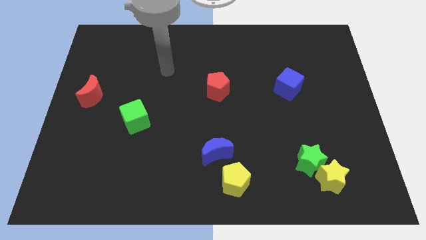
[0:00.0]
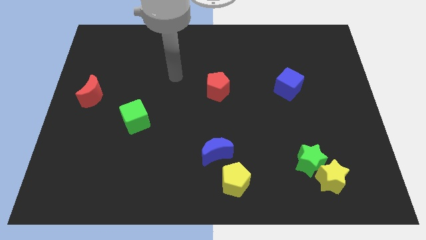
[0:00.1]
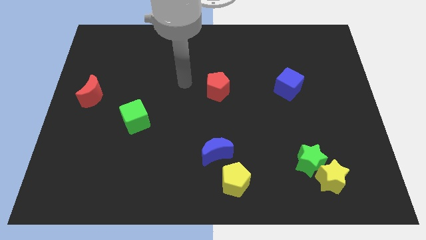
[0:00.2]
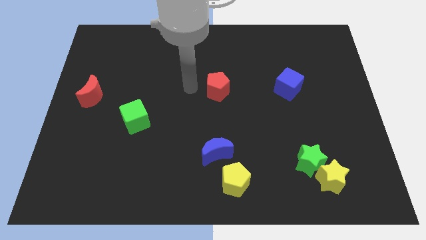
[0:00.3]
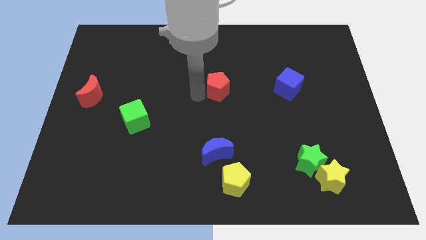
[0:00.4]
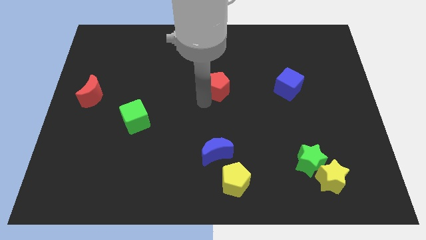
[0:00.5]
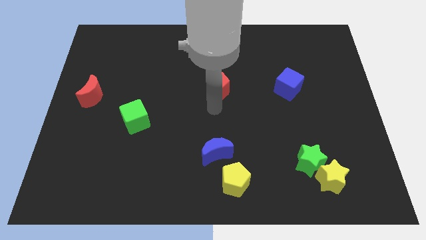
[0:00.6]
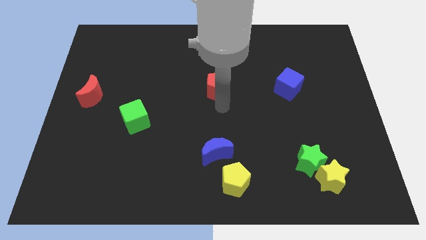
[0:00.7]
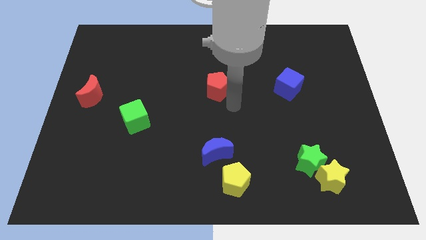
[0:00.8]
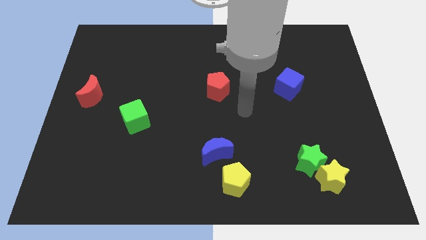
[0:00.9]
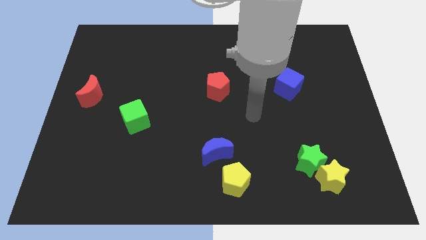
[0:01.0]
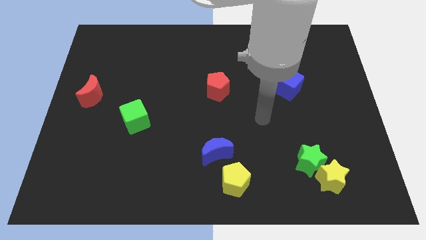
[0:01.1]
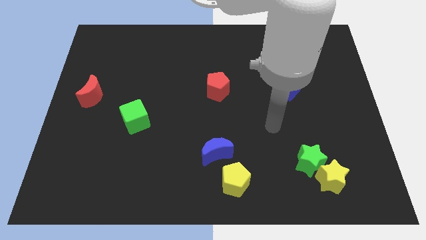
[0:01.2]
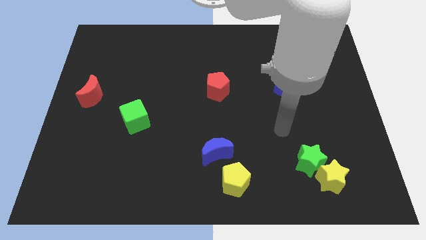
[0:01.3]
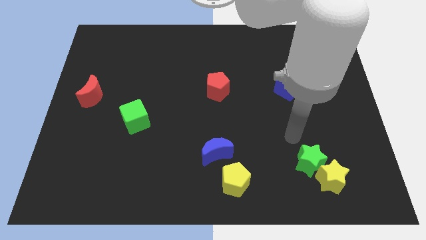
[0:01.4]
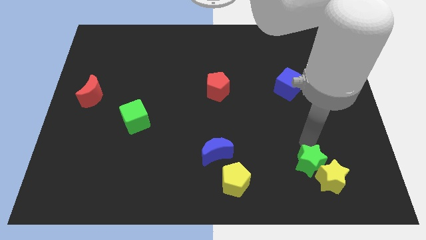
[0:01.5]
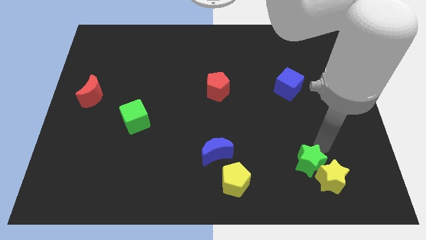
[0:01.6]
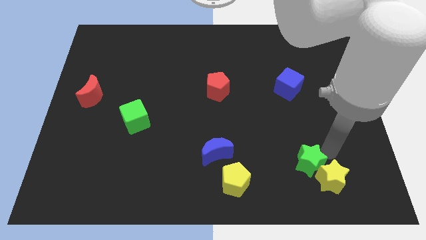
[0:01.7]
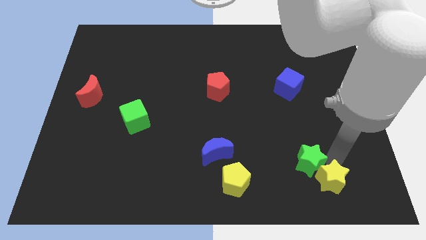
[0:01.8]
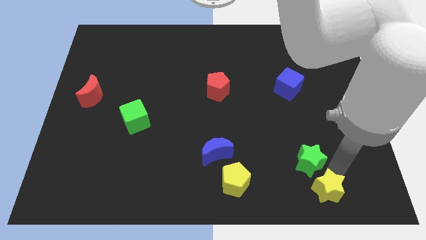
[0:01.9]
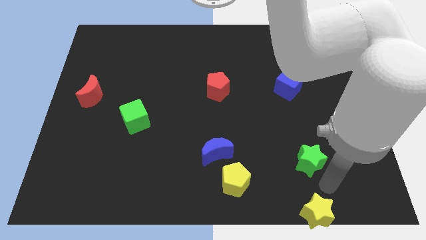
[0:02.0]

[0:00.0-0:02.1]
separate the green star from the yellow star

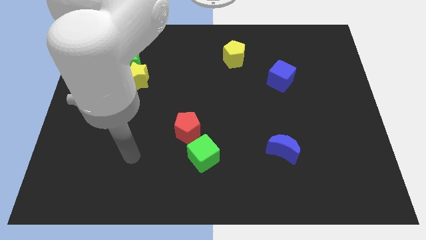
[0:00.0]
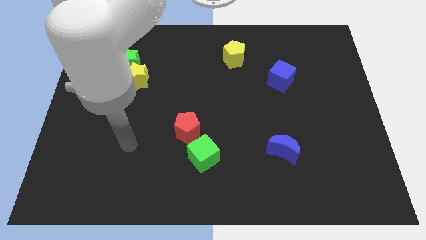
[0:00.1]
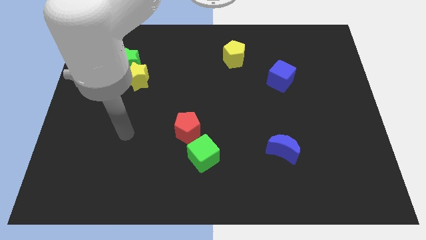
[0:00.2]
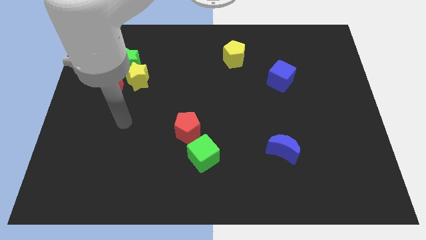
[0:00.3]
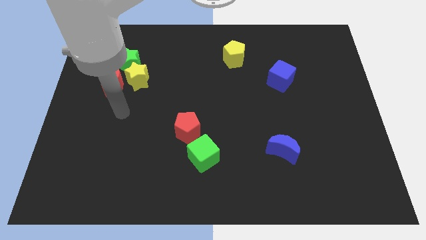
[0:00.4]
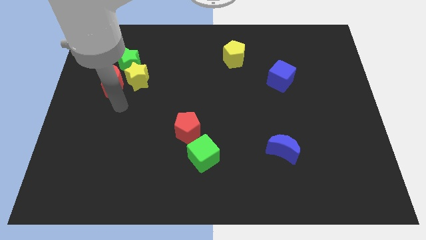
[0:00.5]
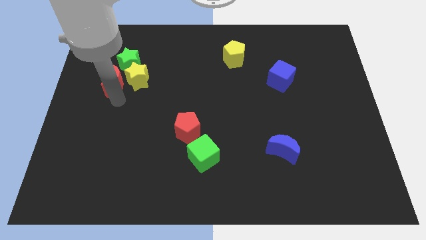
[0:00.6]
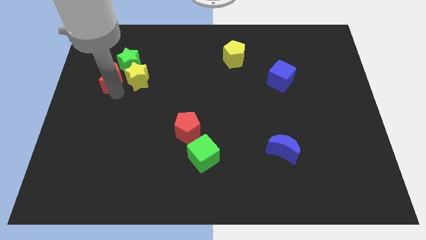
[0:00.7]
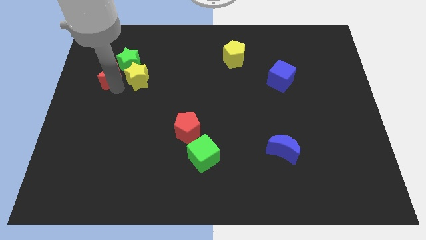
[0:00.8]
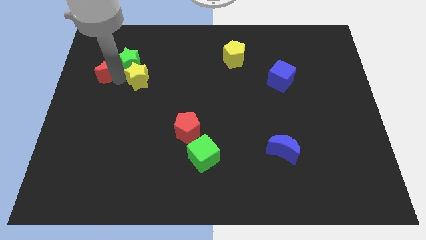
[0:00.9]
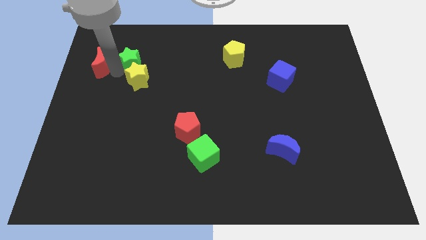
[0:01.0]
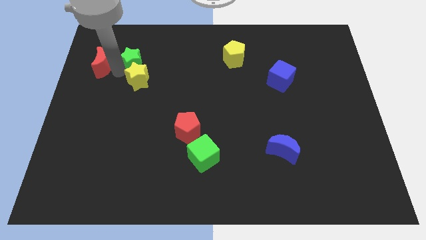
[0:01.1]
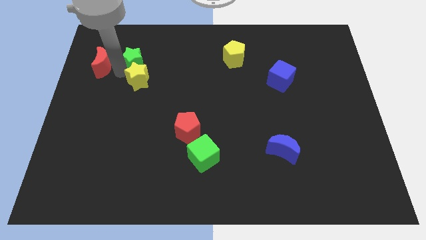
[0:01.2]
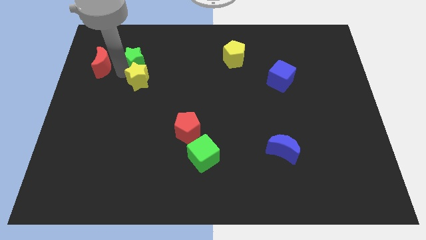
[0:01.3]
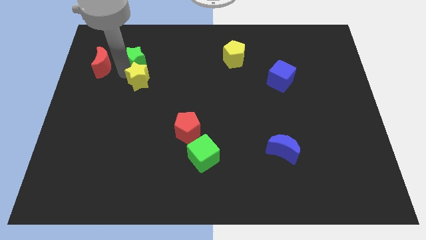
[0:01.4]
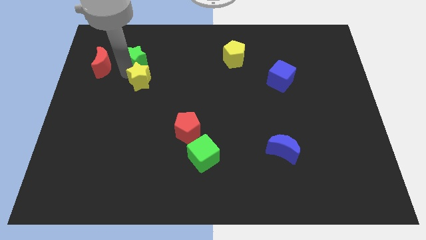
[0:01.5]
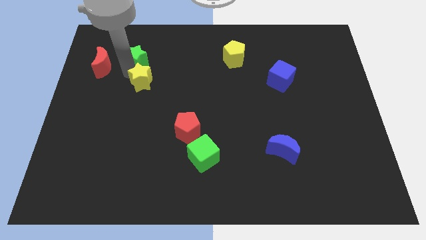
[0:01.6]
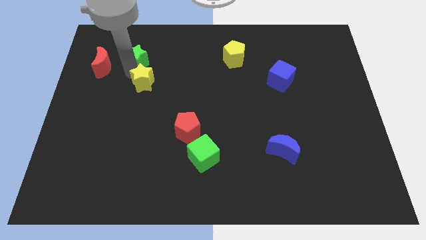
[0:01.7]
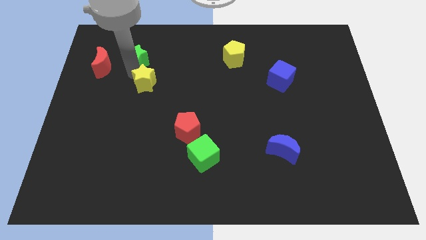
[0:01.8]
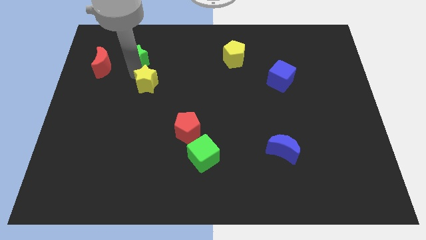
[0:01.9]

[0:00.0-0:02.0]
separate the yellow star from the red moon and green star

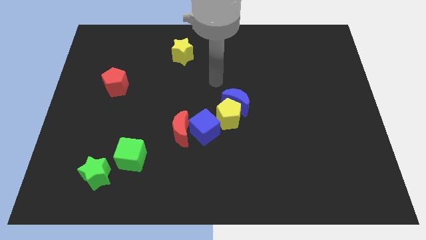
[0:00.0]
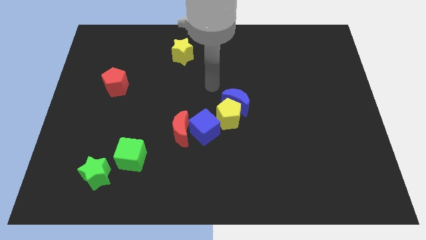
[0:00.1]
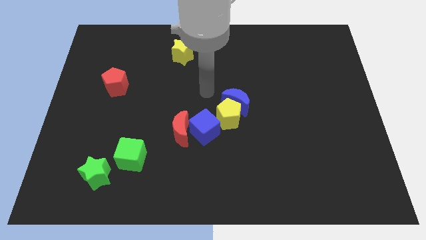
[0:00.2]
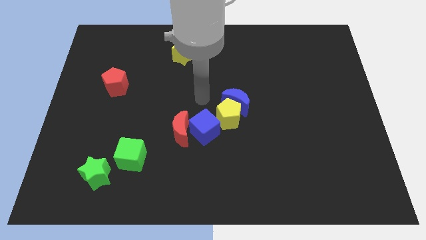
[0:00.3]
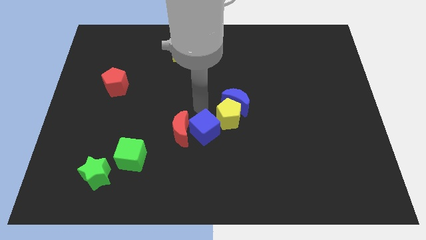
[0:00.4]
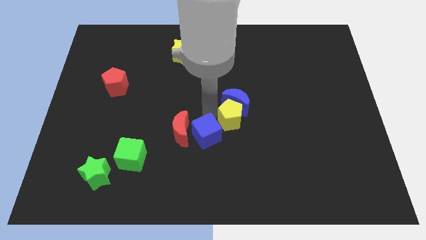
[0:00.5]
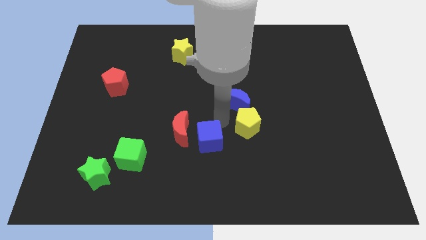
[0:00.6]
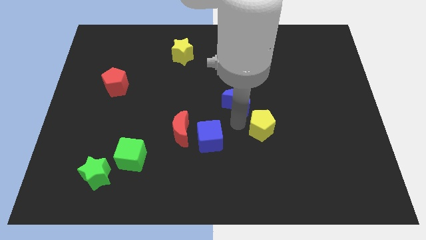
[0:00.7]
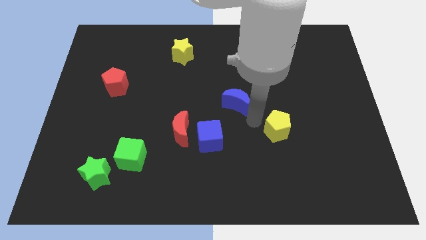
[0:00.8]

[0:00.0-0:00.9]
separate the blue moon from the yellow pentagon

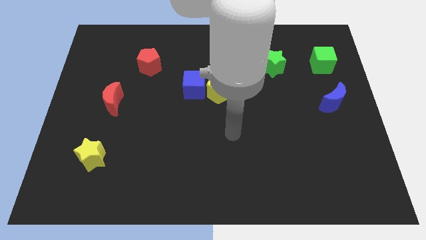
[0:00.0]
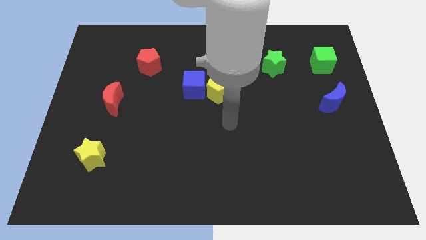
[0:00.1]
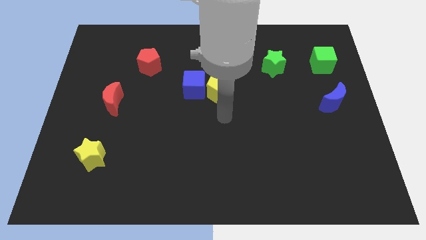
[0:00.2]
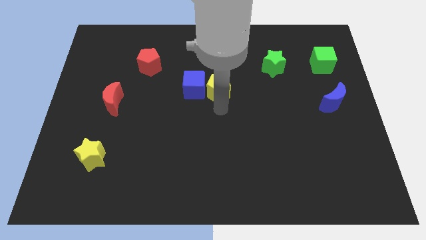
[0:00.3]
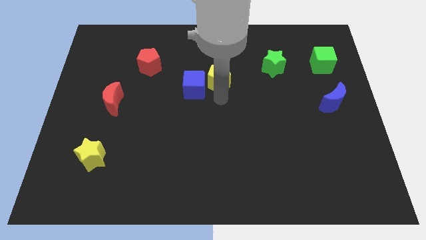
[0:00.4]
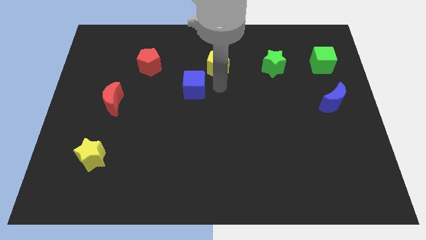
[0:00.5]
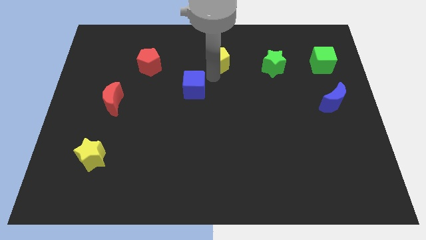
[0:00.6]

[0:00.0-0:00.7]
pull the blue cube apart from the yellow pentagon

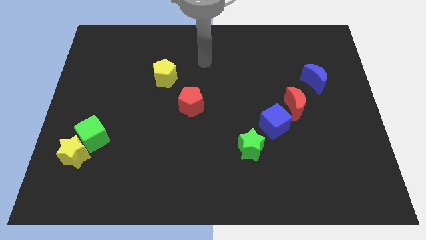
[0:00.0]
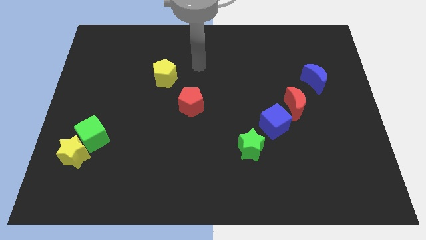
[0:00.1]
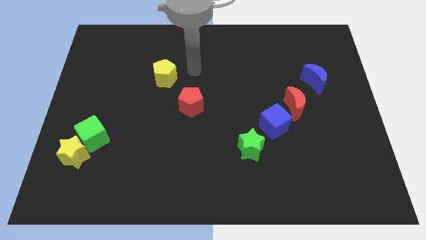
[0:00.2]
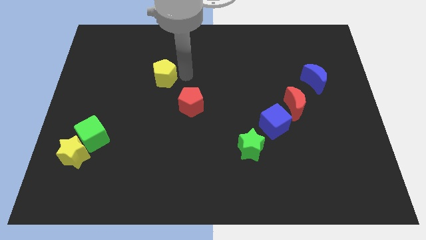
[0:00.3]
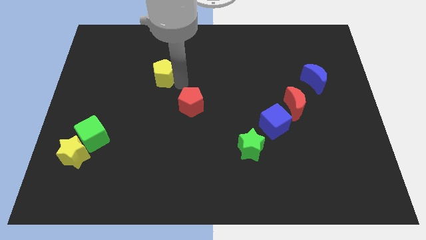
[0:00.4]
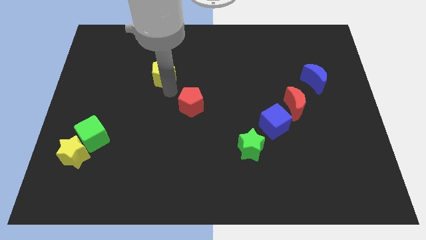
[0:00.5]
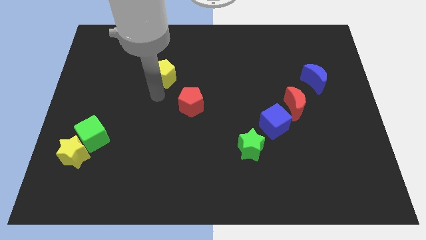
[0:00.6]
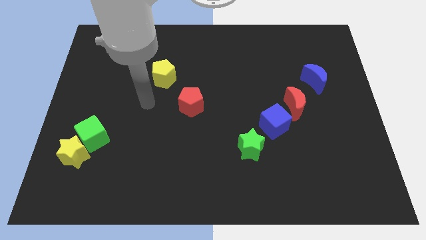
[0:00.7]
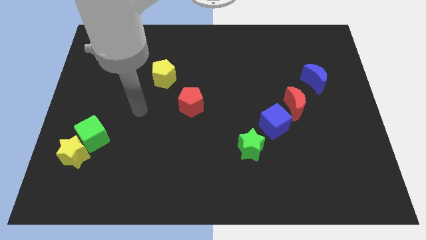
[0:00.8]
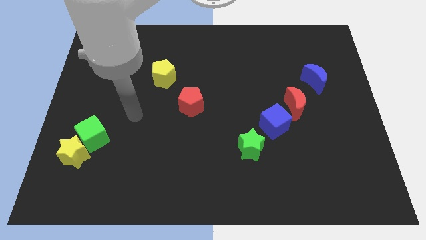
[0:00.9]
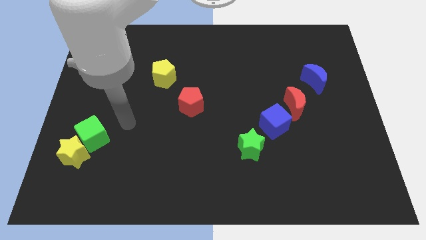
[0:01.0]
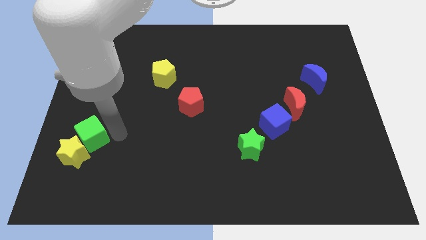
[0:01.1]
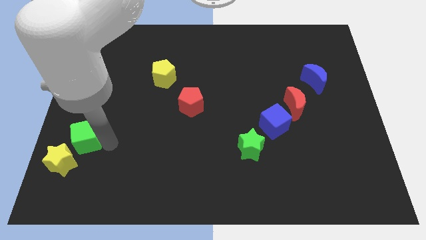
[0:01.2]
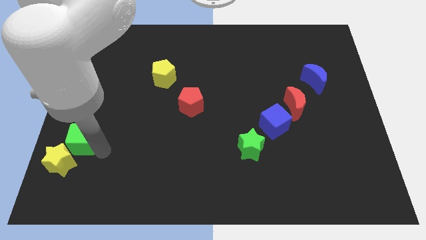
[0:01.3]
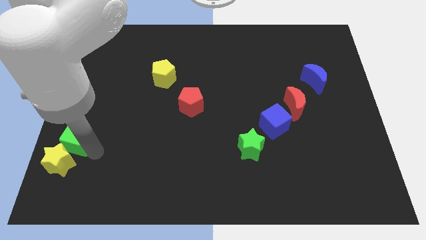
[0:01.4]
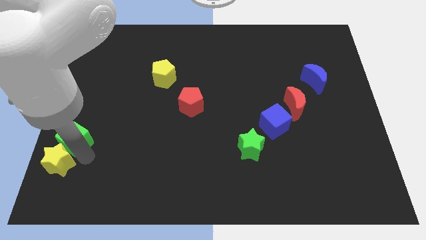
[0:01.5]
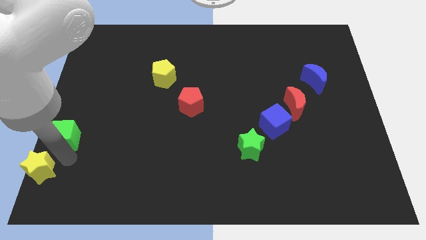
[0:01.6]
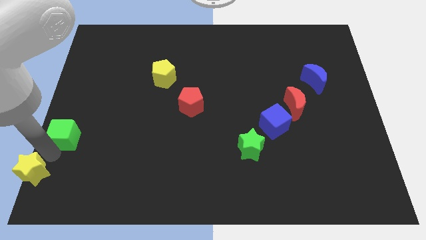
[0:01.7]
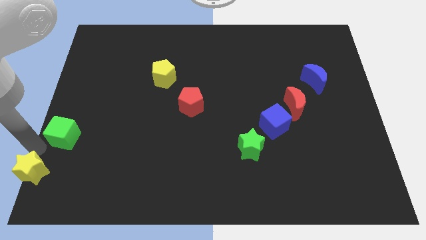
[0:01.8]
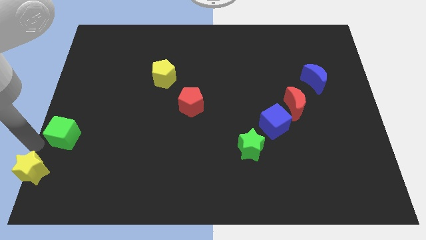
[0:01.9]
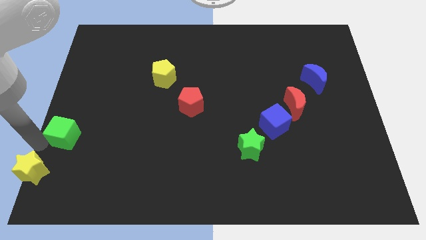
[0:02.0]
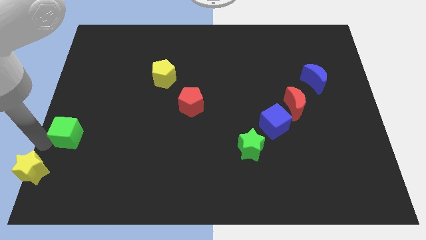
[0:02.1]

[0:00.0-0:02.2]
separate the green cube from the yellow star

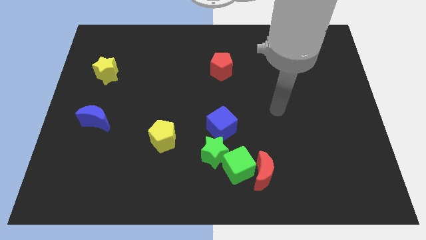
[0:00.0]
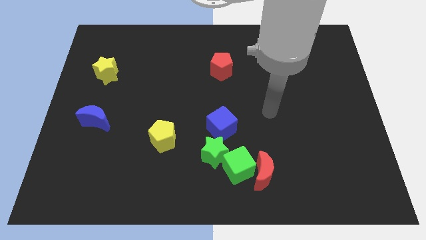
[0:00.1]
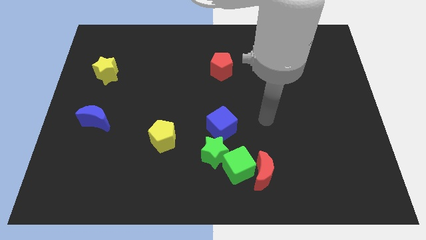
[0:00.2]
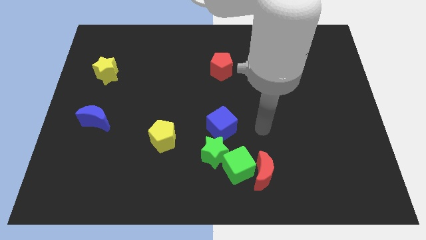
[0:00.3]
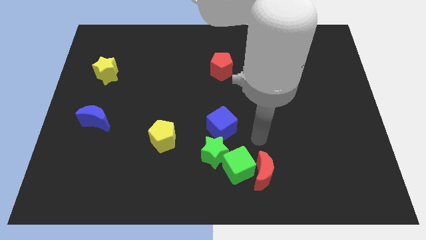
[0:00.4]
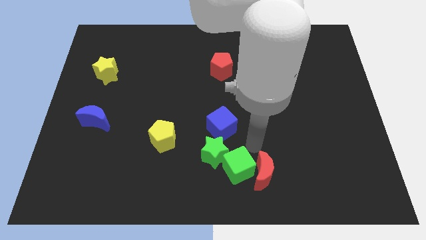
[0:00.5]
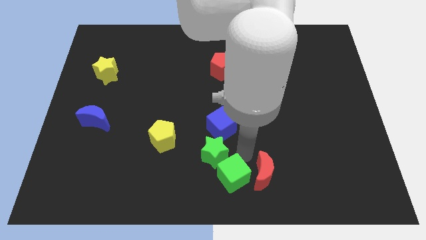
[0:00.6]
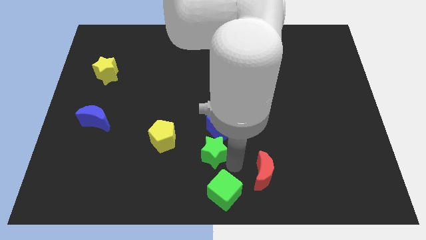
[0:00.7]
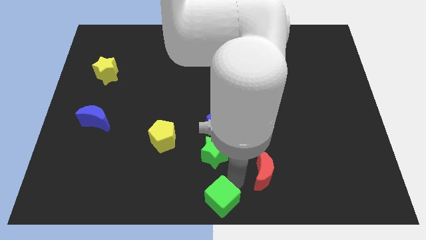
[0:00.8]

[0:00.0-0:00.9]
separate the red moon from the green cube

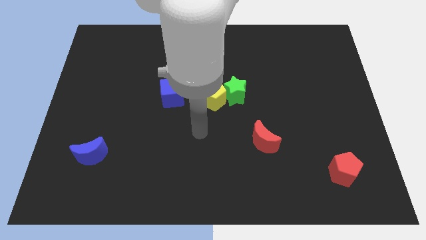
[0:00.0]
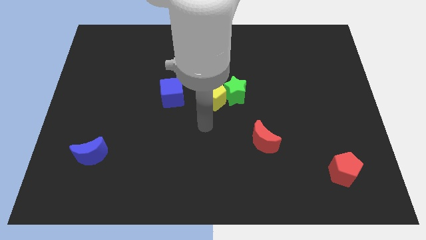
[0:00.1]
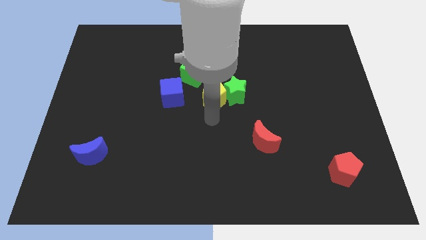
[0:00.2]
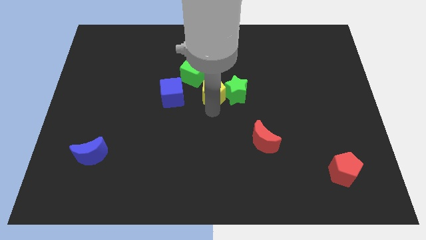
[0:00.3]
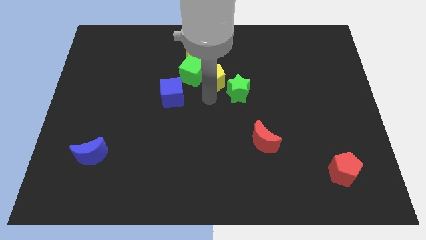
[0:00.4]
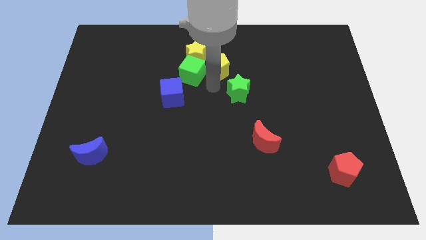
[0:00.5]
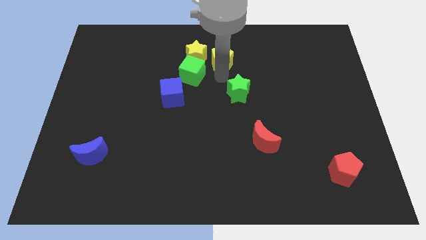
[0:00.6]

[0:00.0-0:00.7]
separate the green star from the yellow pentagon
